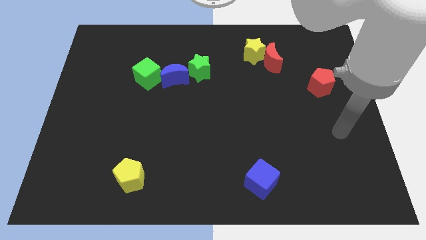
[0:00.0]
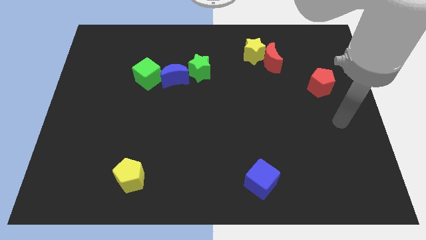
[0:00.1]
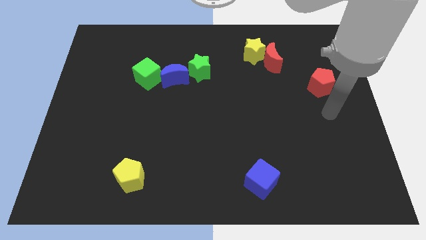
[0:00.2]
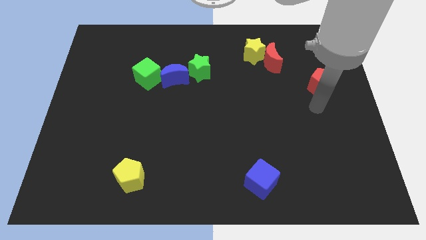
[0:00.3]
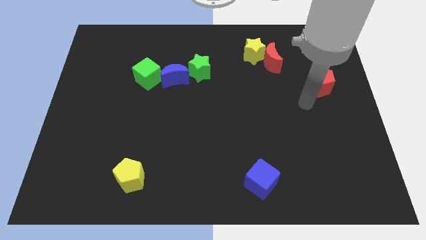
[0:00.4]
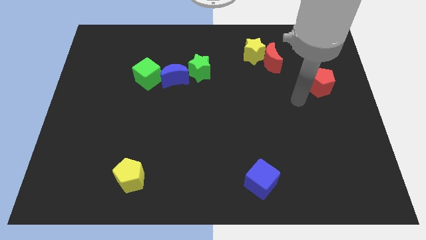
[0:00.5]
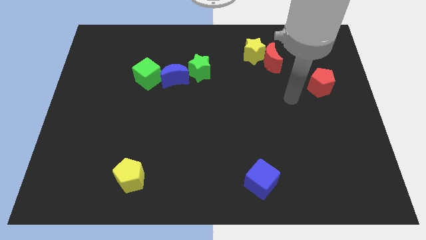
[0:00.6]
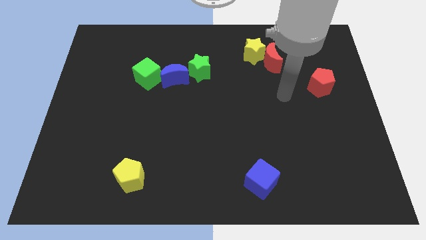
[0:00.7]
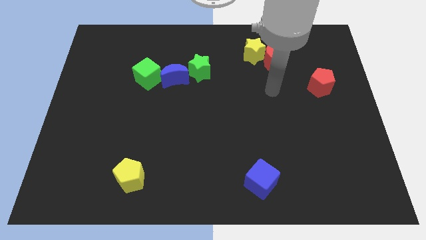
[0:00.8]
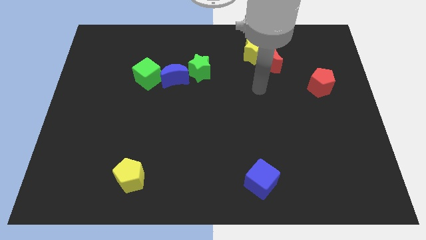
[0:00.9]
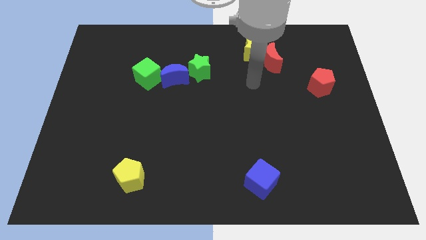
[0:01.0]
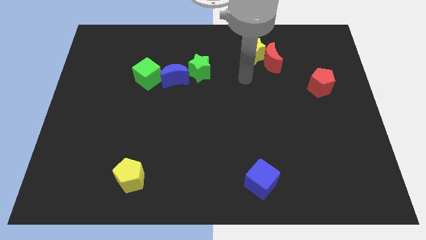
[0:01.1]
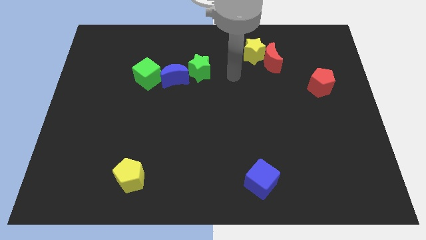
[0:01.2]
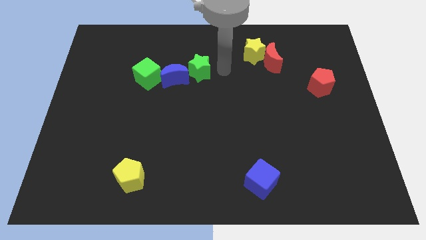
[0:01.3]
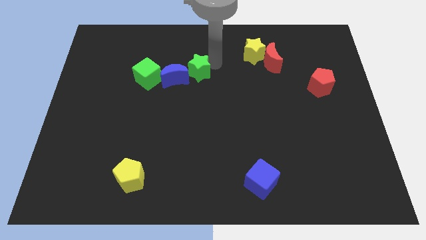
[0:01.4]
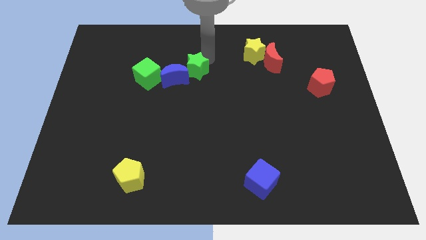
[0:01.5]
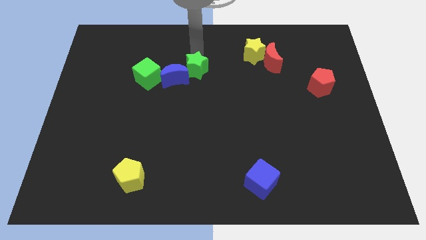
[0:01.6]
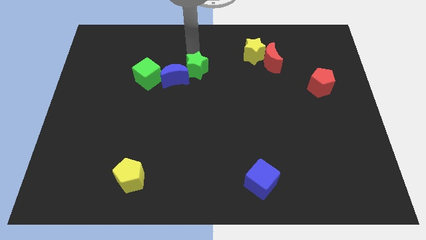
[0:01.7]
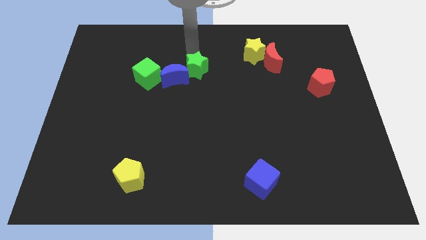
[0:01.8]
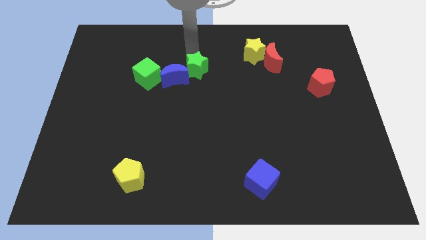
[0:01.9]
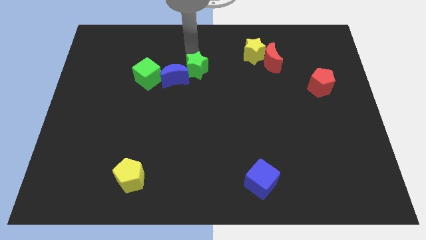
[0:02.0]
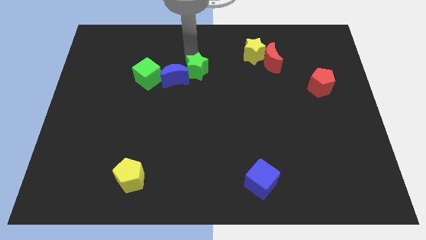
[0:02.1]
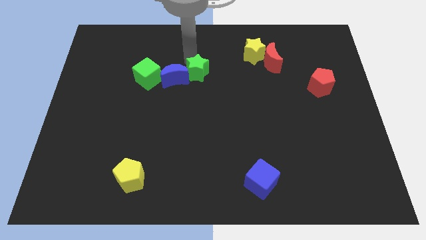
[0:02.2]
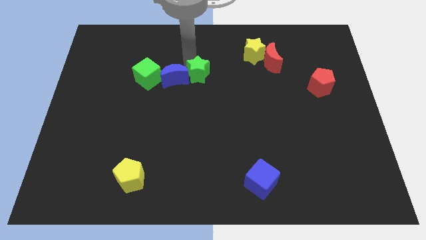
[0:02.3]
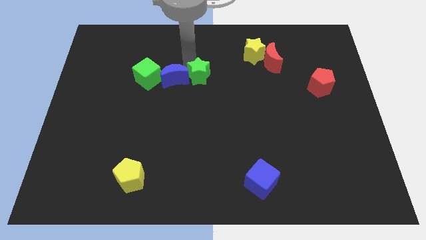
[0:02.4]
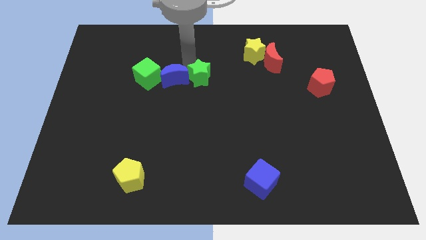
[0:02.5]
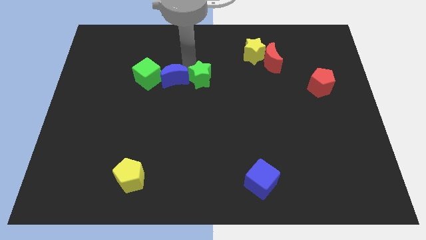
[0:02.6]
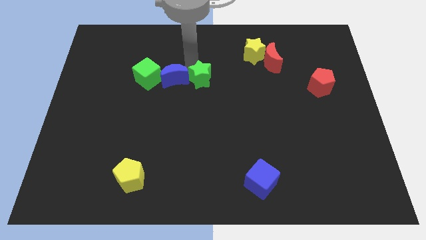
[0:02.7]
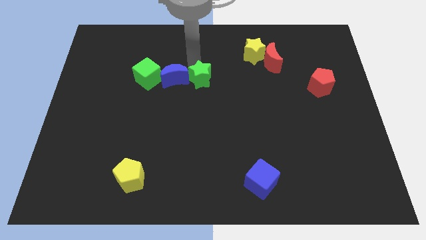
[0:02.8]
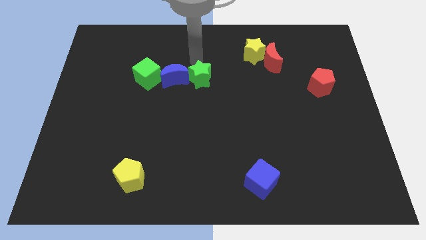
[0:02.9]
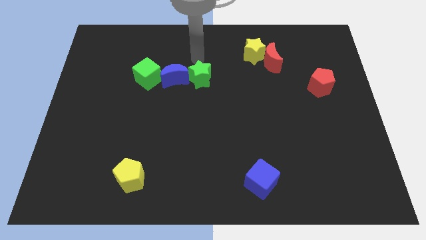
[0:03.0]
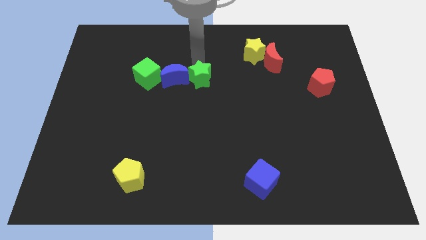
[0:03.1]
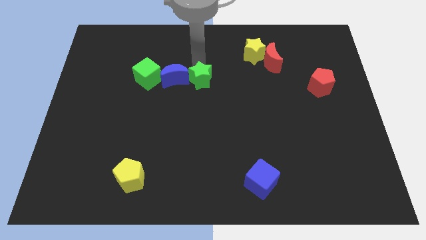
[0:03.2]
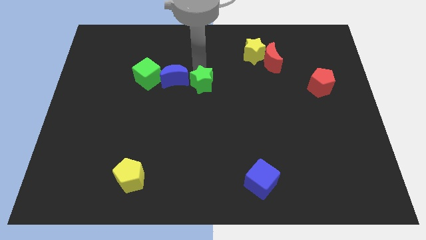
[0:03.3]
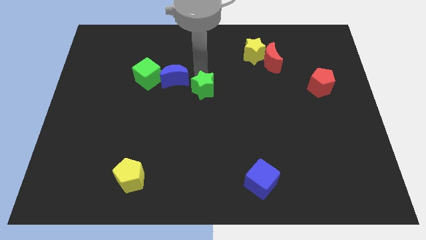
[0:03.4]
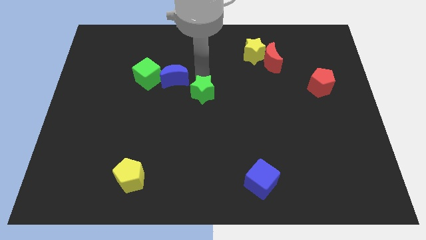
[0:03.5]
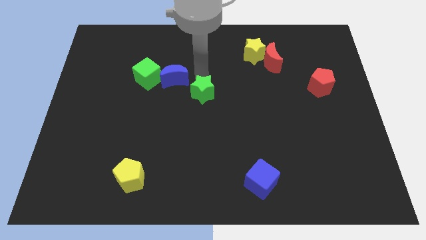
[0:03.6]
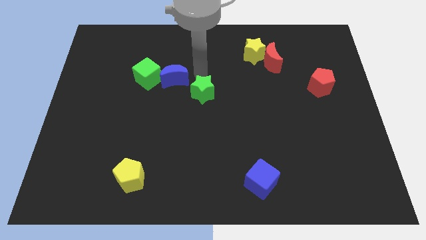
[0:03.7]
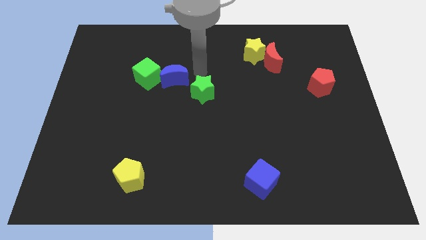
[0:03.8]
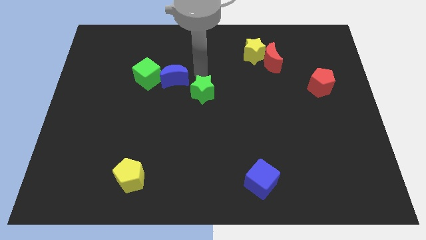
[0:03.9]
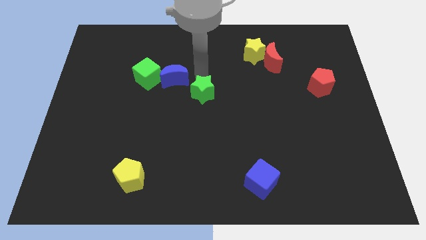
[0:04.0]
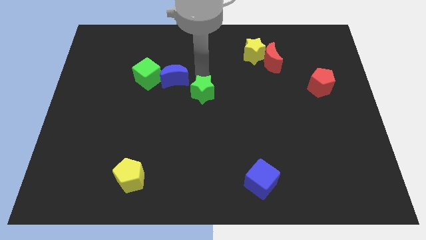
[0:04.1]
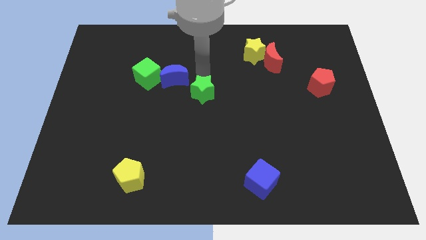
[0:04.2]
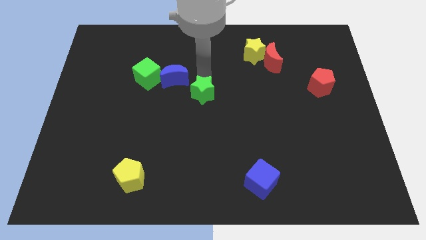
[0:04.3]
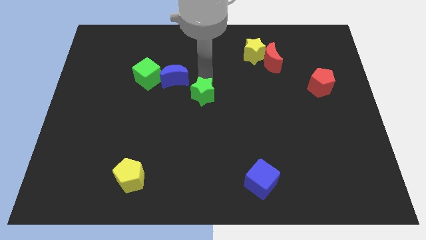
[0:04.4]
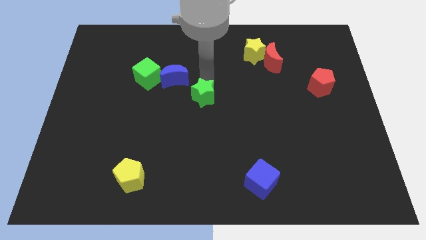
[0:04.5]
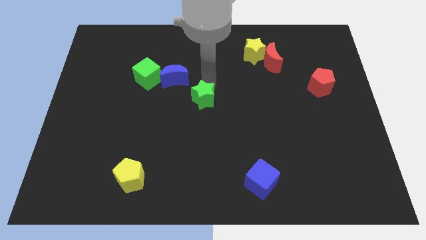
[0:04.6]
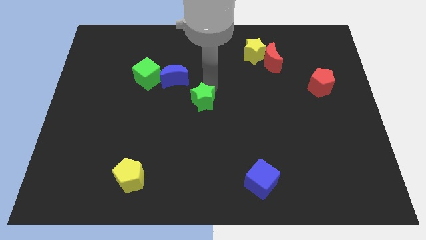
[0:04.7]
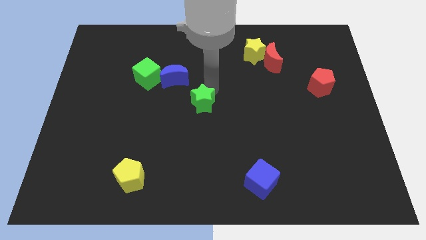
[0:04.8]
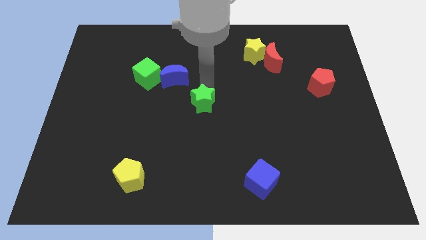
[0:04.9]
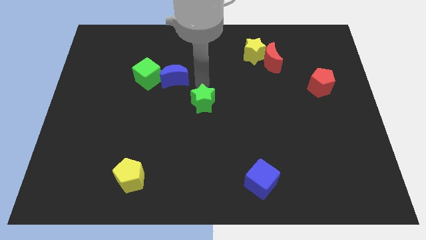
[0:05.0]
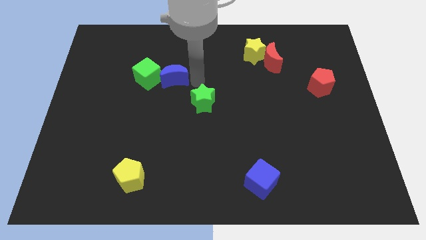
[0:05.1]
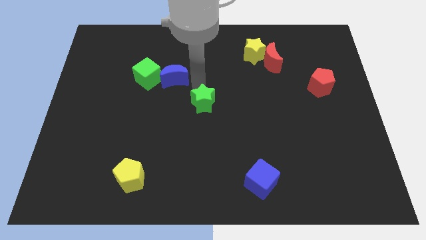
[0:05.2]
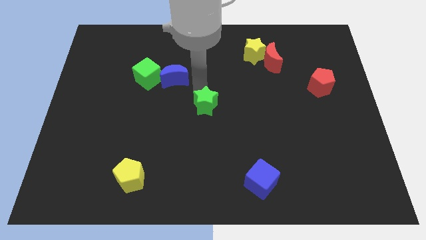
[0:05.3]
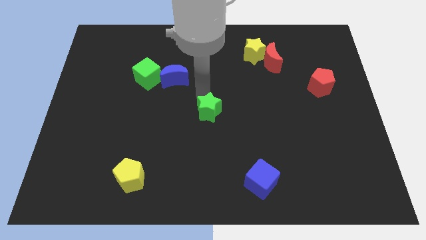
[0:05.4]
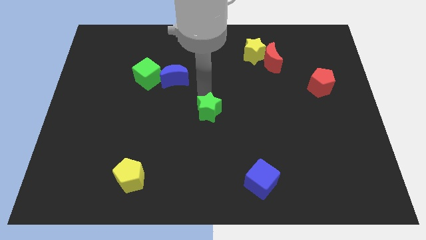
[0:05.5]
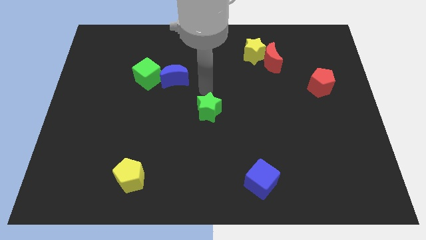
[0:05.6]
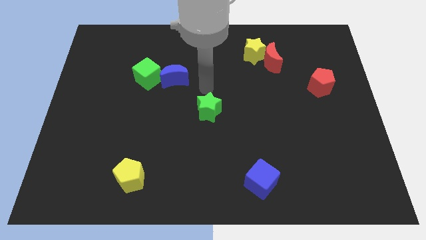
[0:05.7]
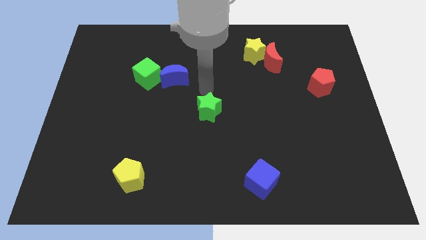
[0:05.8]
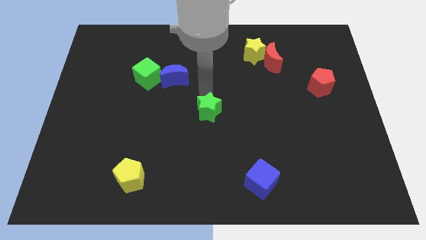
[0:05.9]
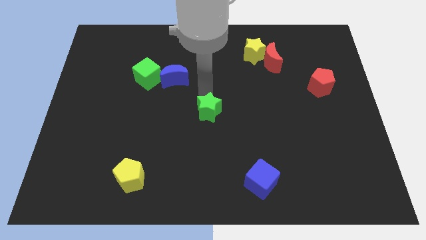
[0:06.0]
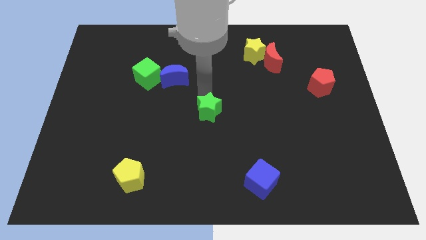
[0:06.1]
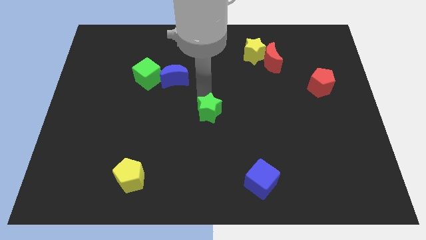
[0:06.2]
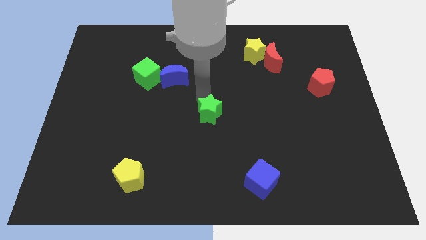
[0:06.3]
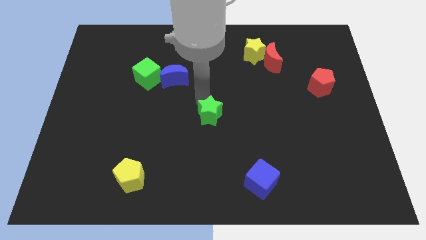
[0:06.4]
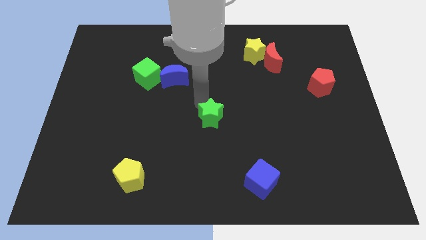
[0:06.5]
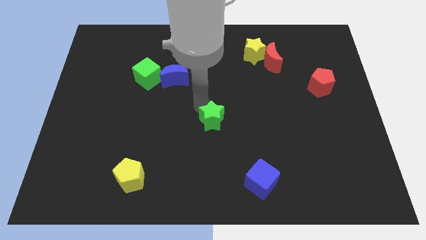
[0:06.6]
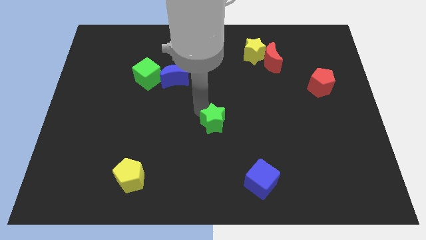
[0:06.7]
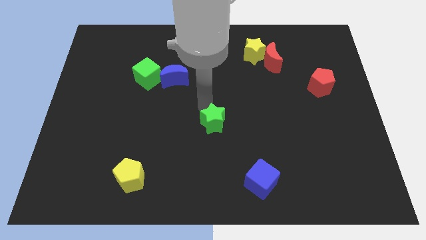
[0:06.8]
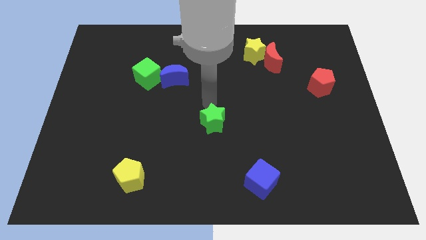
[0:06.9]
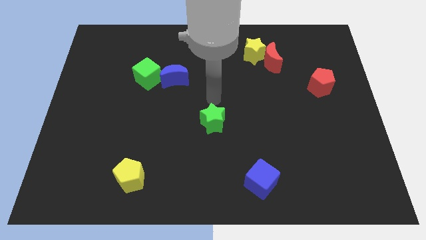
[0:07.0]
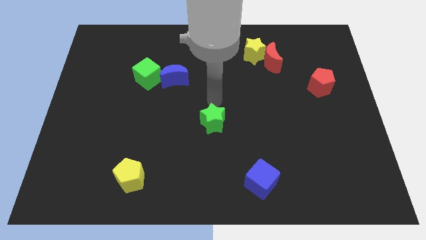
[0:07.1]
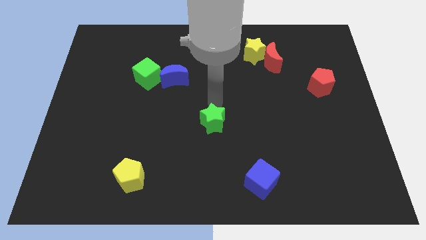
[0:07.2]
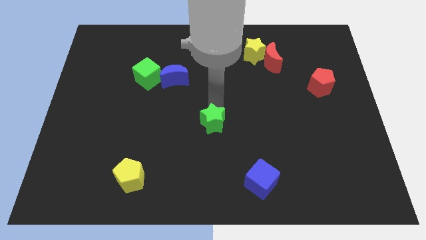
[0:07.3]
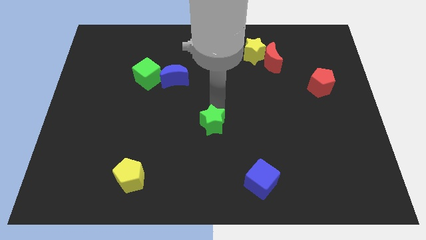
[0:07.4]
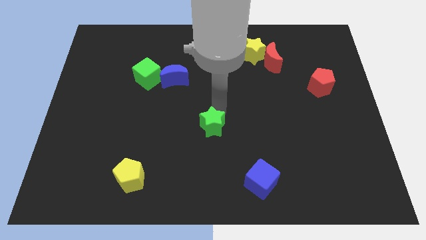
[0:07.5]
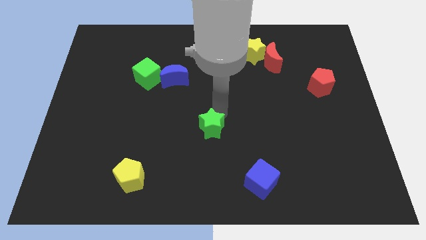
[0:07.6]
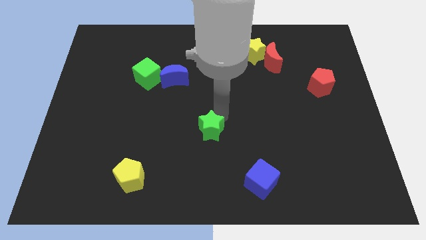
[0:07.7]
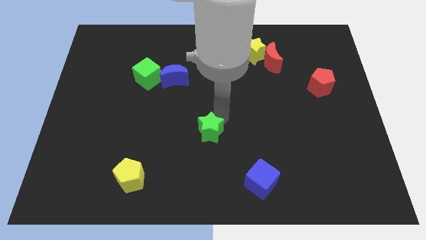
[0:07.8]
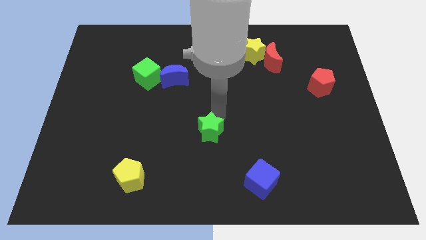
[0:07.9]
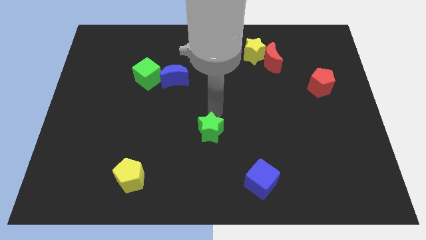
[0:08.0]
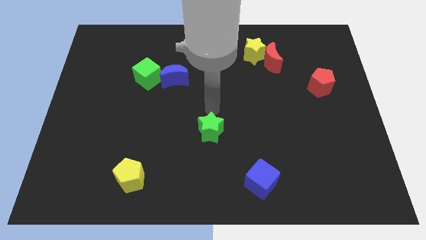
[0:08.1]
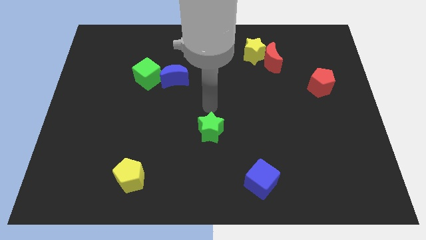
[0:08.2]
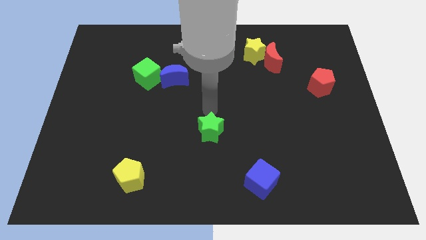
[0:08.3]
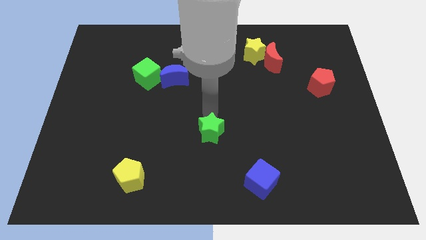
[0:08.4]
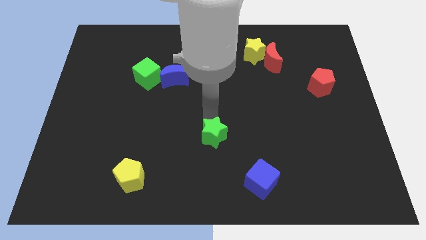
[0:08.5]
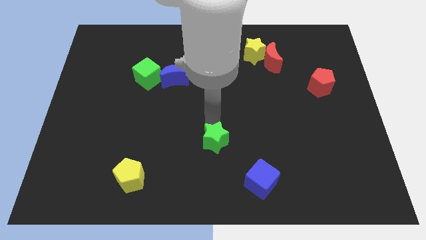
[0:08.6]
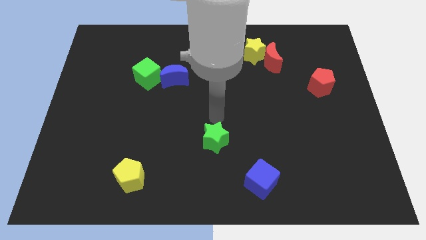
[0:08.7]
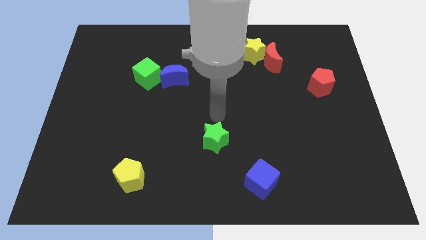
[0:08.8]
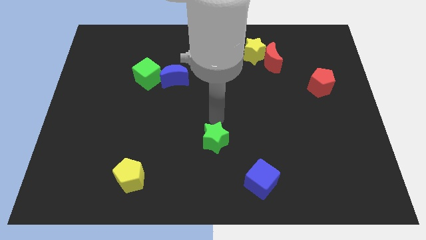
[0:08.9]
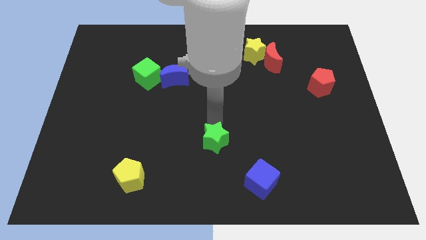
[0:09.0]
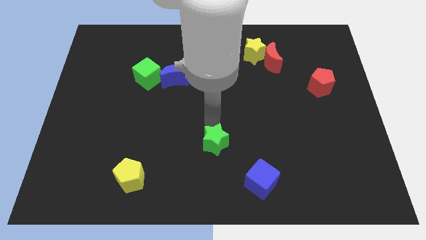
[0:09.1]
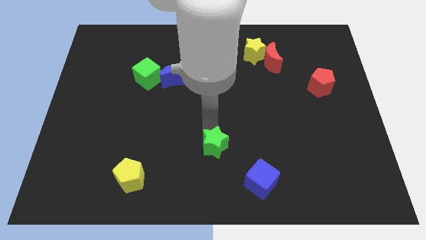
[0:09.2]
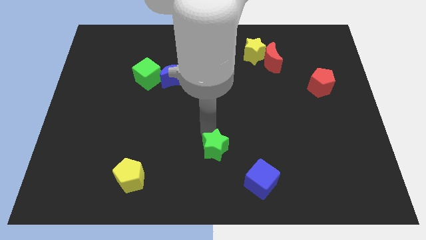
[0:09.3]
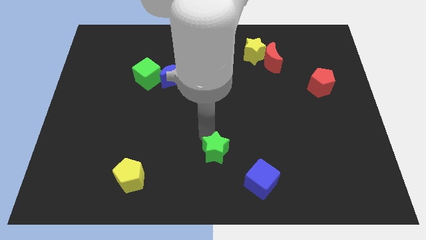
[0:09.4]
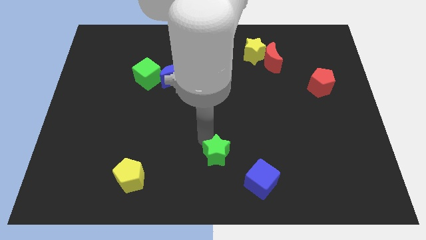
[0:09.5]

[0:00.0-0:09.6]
put the green star to the bottom
